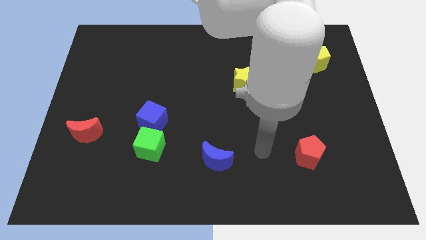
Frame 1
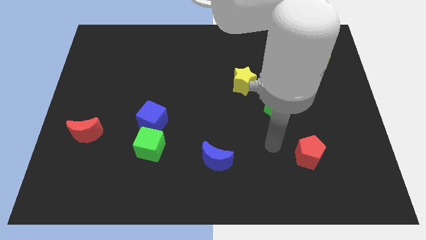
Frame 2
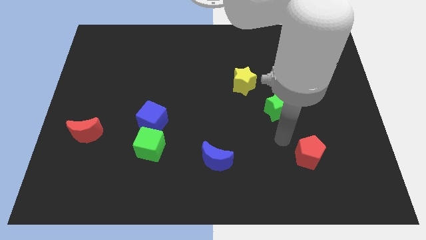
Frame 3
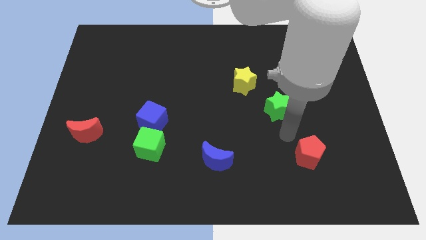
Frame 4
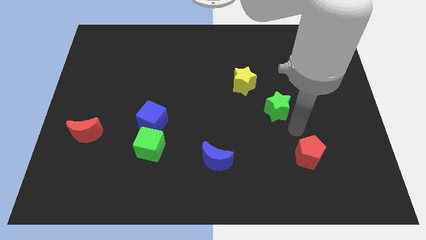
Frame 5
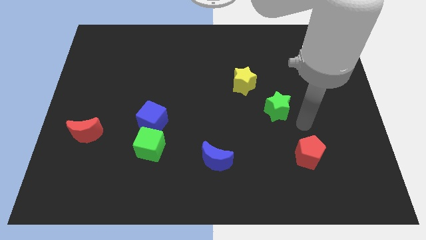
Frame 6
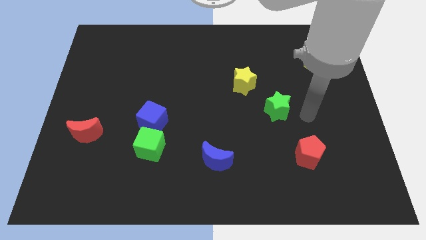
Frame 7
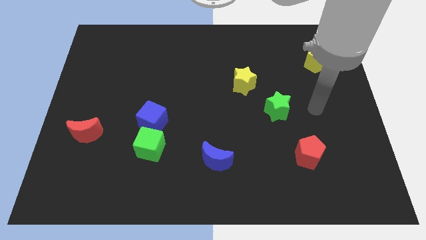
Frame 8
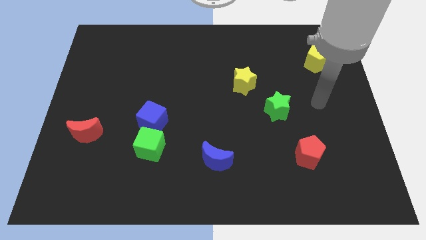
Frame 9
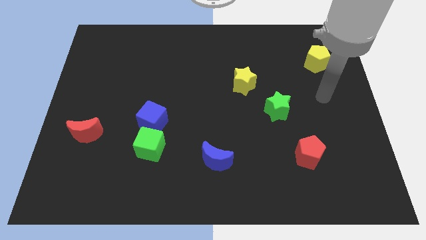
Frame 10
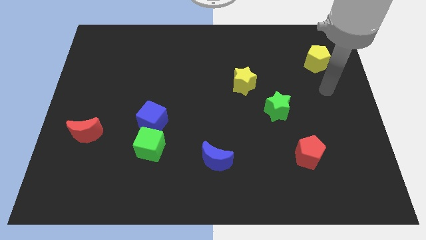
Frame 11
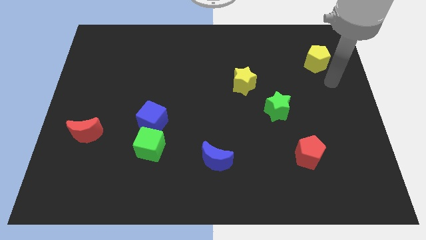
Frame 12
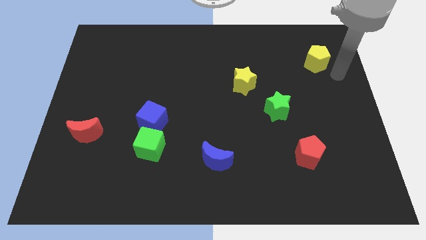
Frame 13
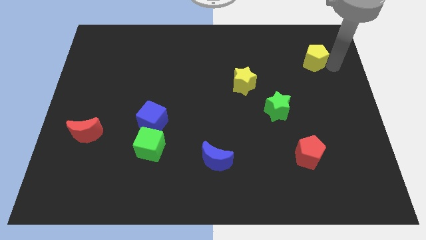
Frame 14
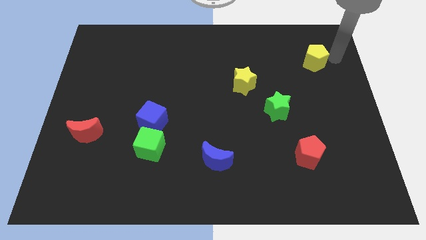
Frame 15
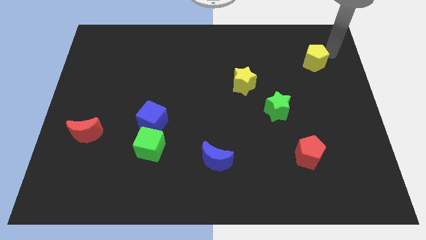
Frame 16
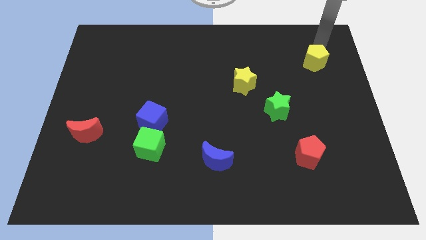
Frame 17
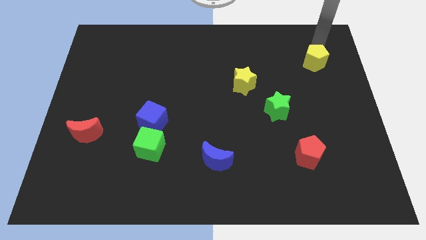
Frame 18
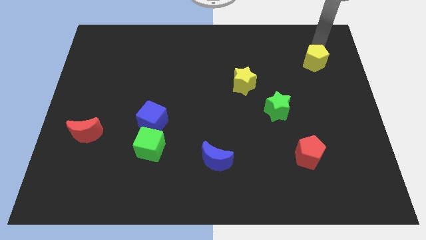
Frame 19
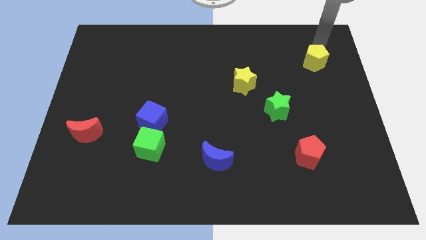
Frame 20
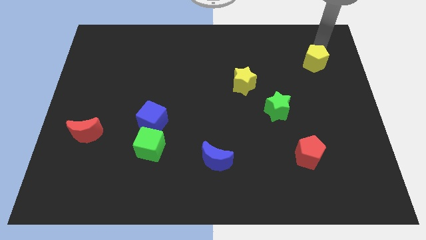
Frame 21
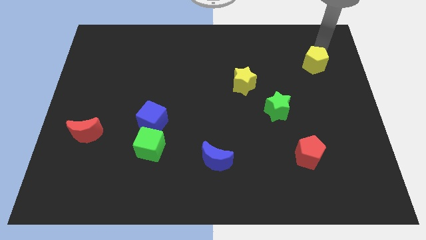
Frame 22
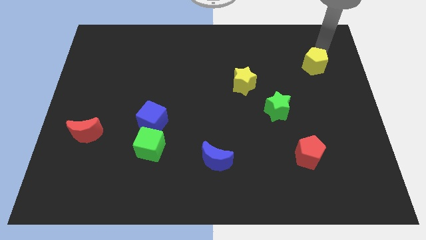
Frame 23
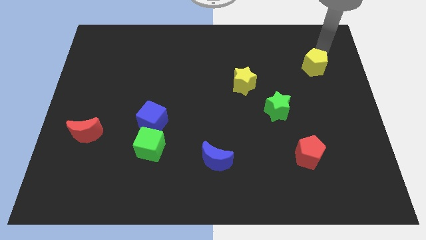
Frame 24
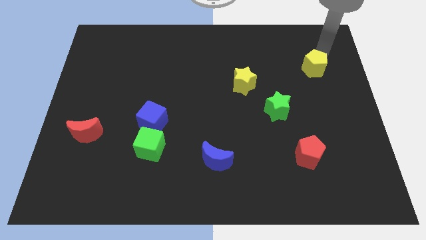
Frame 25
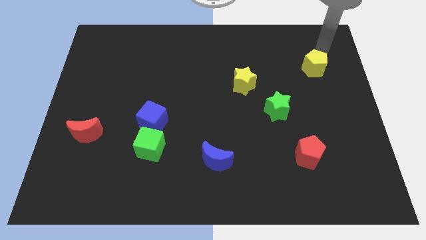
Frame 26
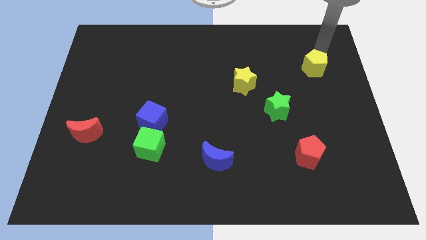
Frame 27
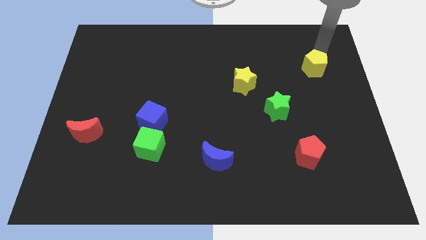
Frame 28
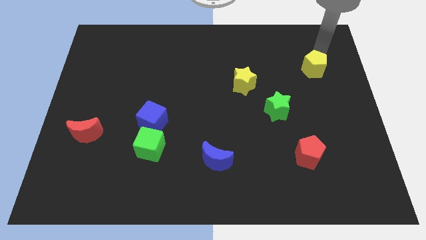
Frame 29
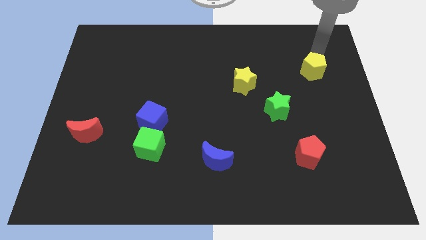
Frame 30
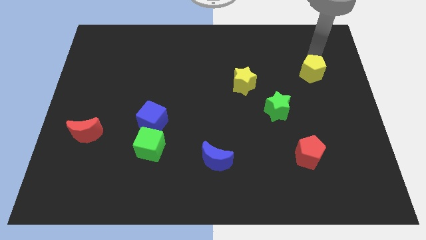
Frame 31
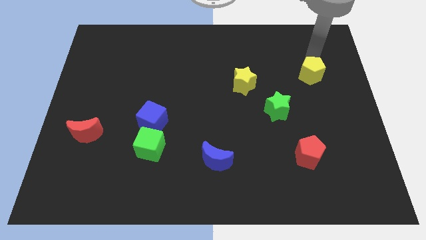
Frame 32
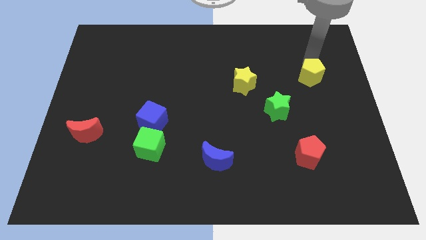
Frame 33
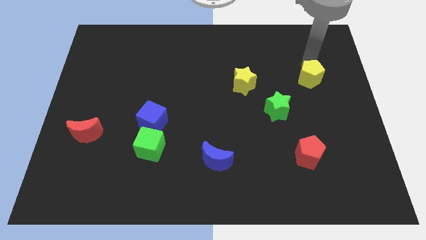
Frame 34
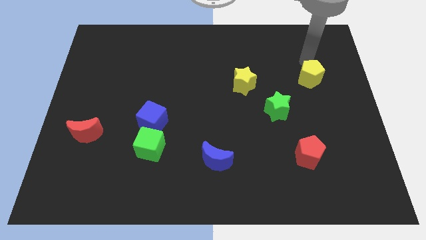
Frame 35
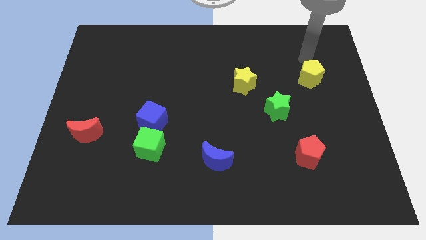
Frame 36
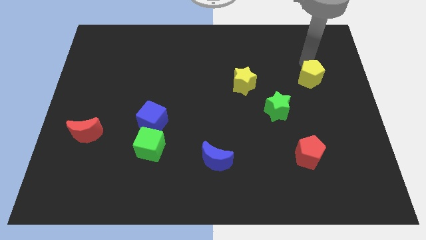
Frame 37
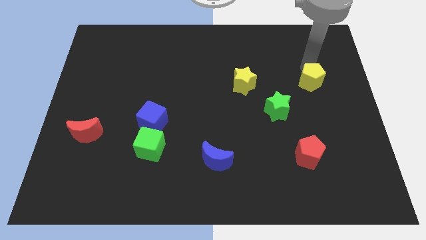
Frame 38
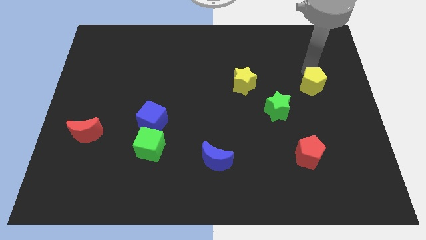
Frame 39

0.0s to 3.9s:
slightly push the yellow pentagon down

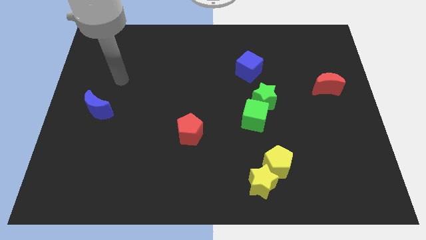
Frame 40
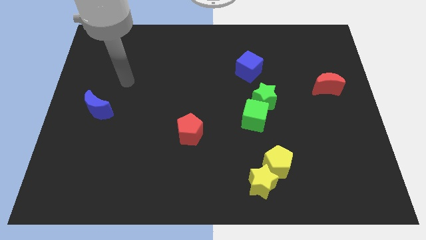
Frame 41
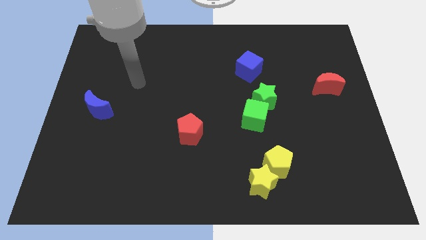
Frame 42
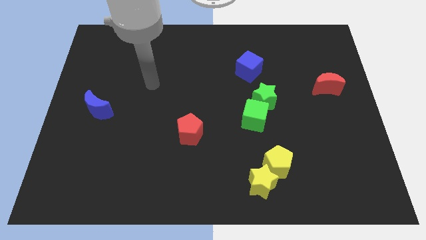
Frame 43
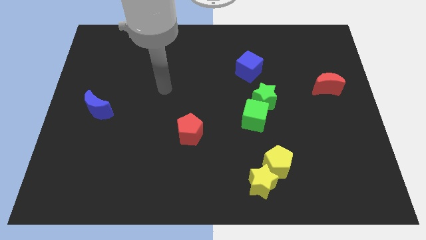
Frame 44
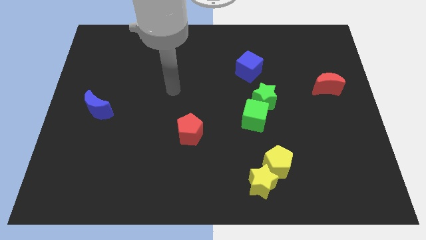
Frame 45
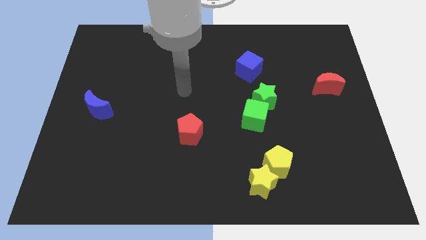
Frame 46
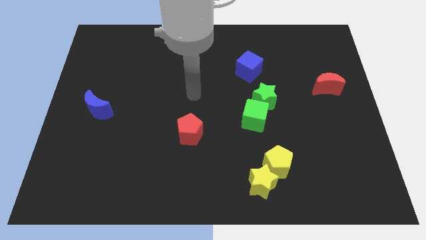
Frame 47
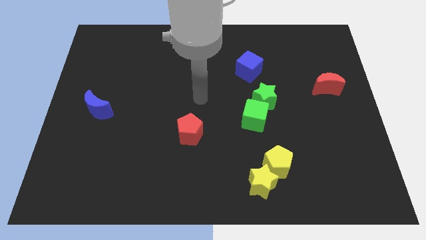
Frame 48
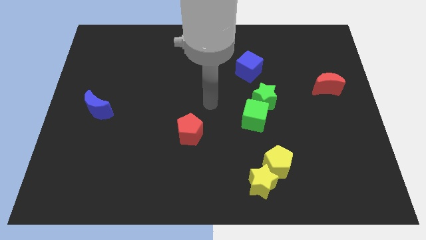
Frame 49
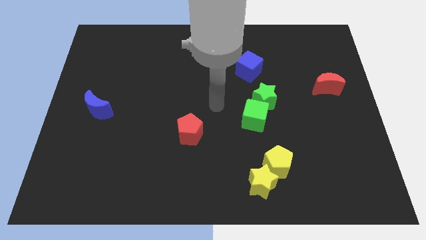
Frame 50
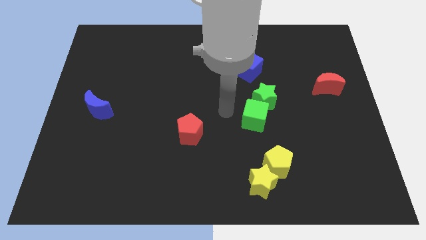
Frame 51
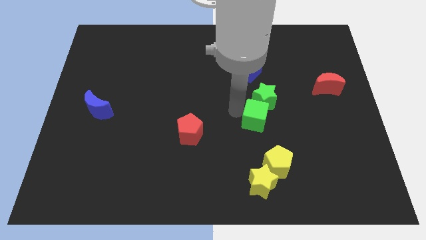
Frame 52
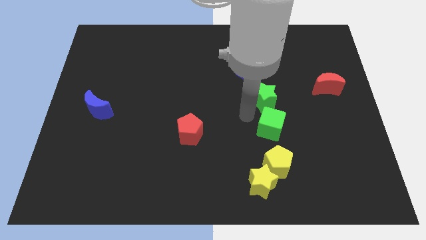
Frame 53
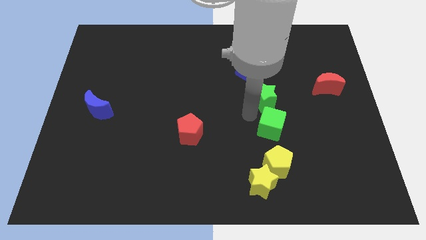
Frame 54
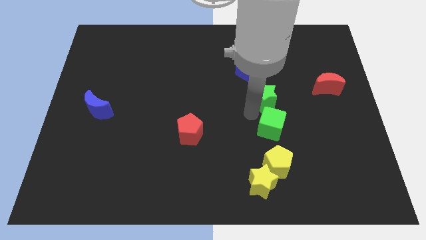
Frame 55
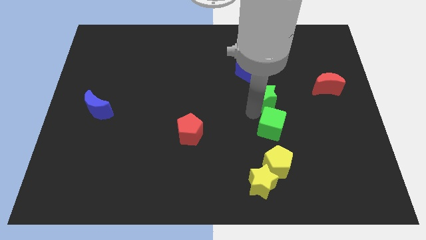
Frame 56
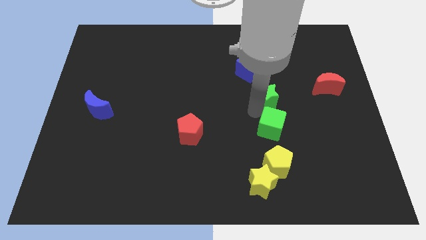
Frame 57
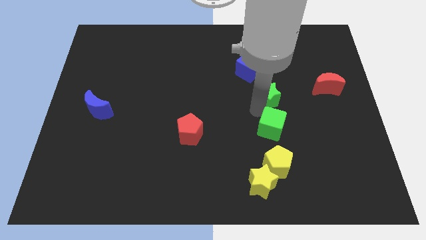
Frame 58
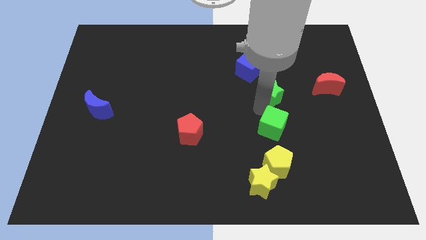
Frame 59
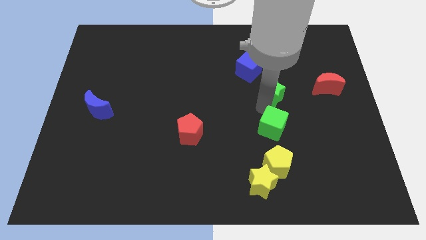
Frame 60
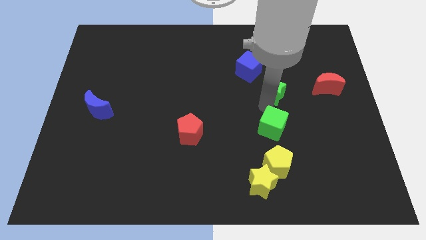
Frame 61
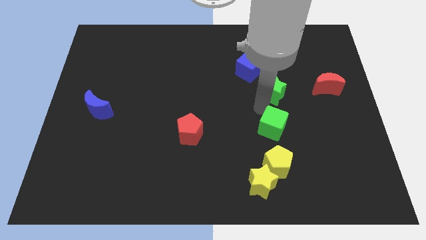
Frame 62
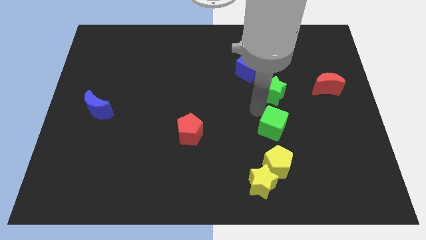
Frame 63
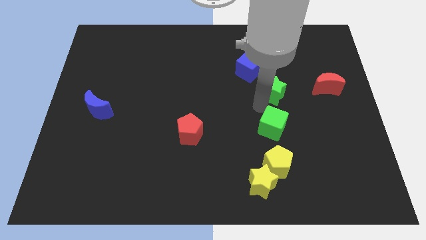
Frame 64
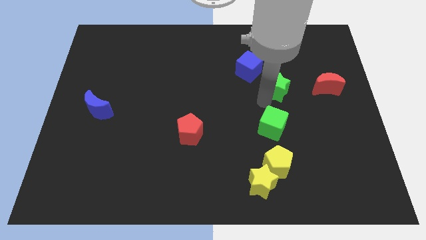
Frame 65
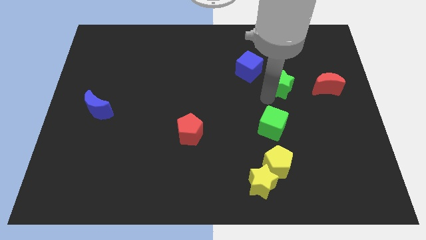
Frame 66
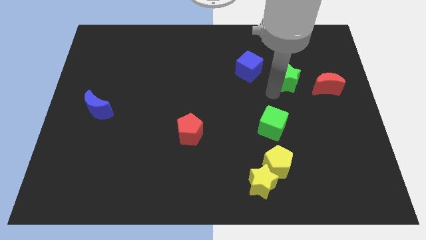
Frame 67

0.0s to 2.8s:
slightly push the green star upwards and to the right diagonally

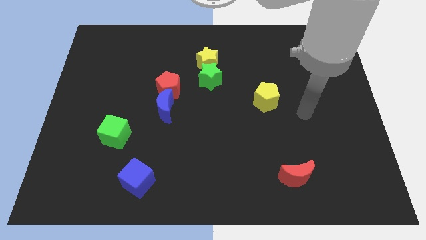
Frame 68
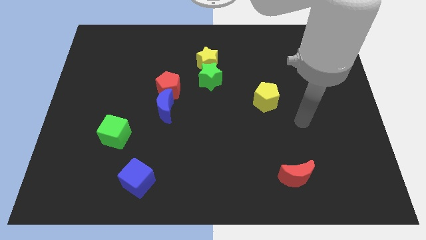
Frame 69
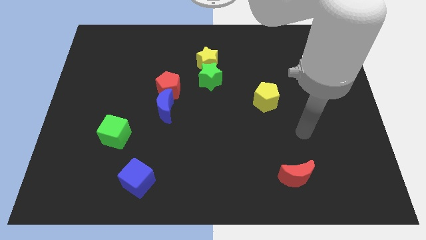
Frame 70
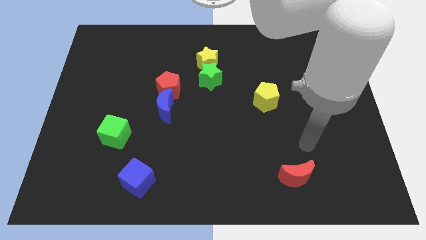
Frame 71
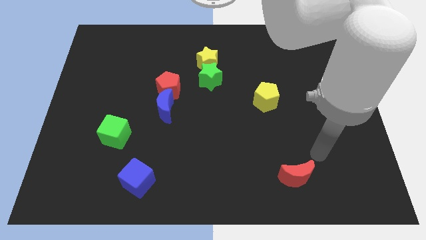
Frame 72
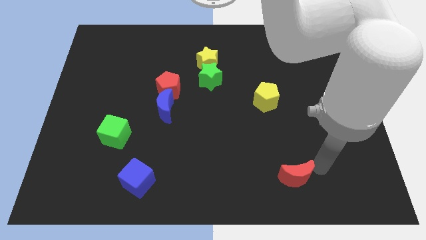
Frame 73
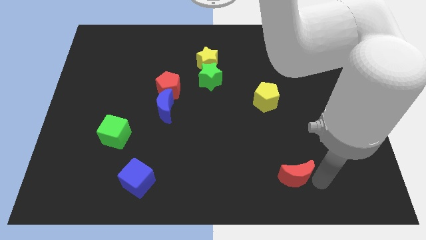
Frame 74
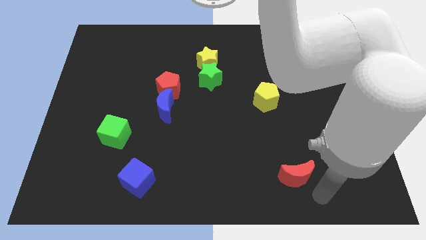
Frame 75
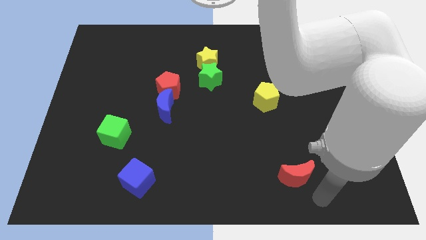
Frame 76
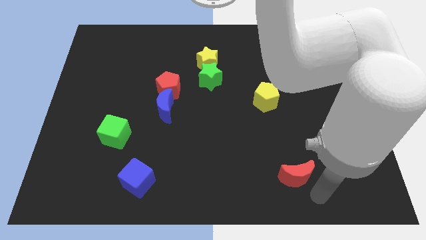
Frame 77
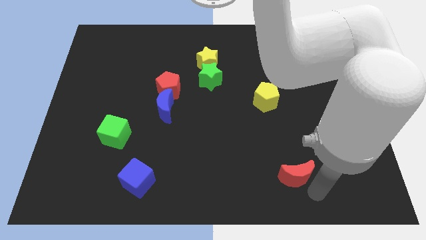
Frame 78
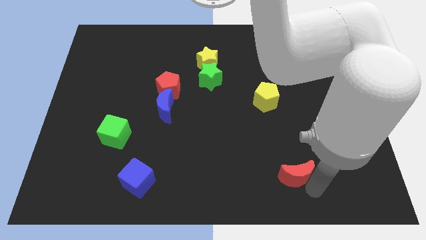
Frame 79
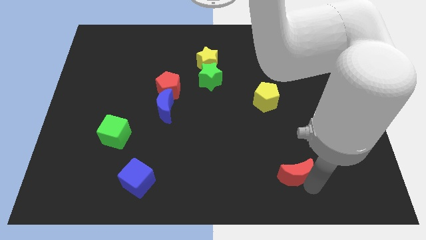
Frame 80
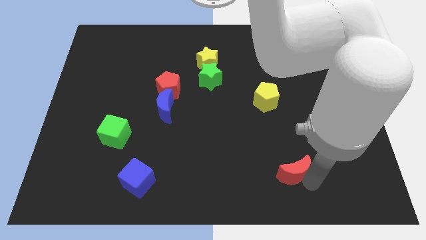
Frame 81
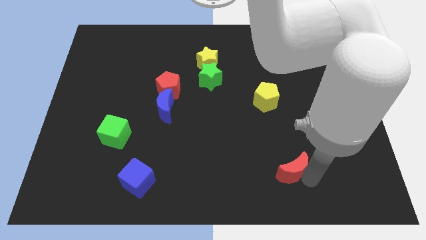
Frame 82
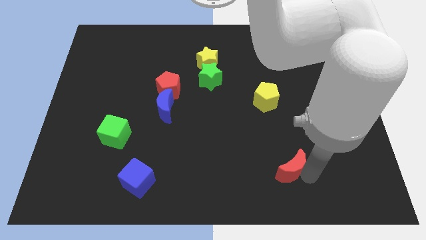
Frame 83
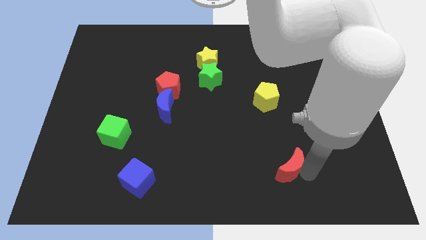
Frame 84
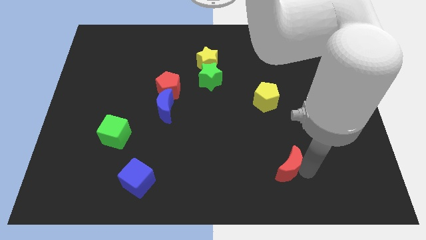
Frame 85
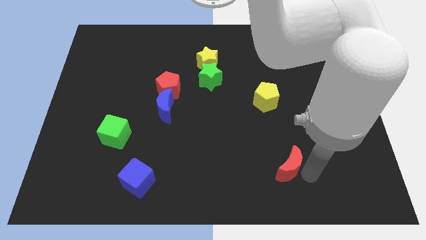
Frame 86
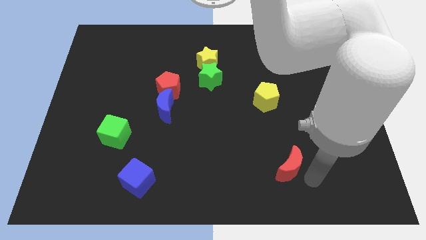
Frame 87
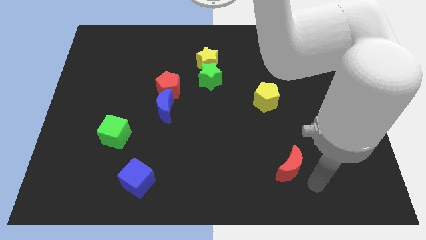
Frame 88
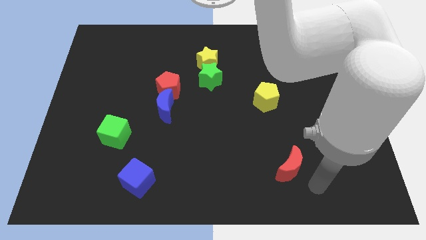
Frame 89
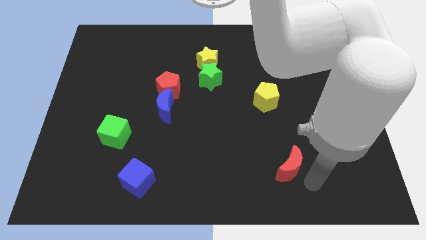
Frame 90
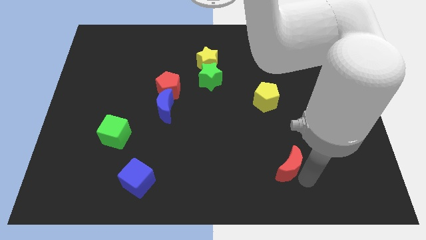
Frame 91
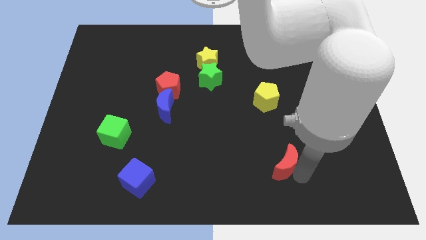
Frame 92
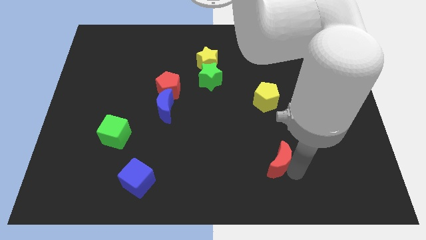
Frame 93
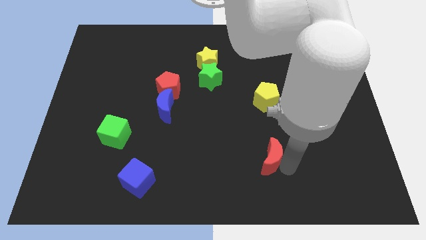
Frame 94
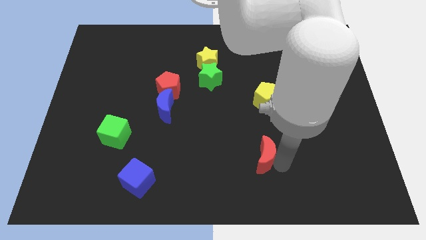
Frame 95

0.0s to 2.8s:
push the red moon up and left a little bit
